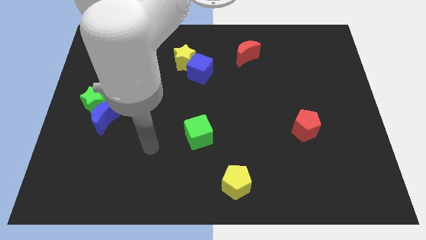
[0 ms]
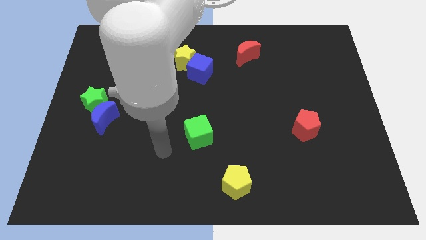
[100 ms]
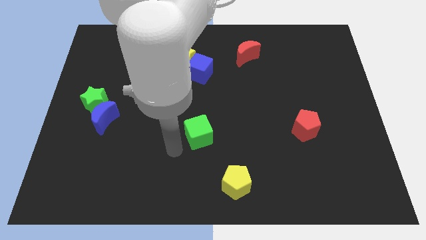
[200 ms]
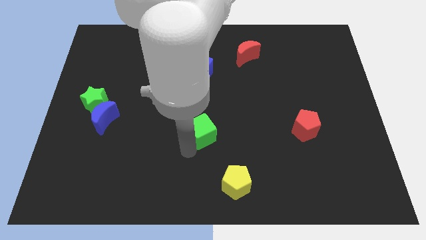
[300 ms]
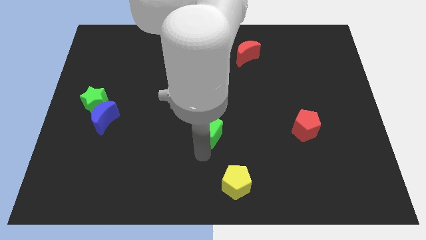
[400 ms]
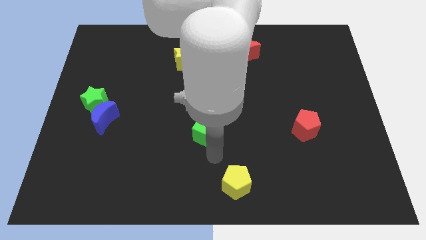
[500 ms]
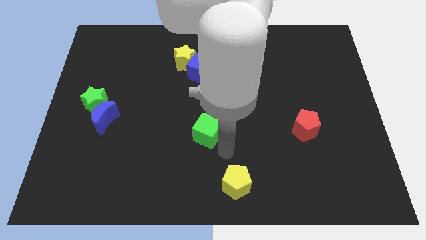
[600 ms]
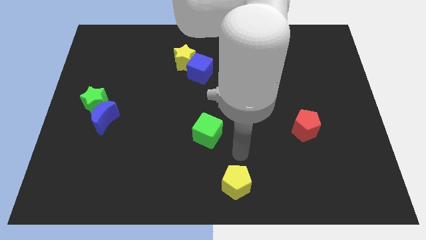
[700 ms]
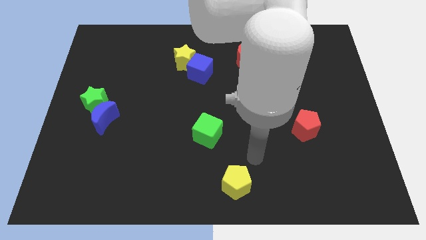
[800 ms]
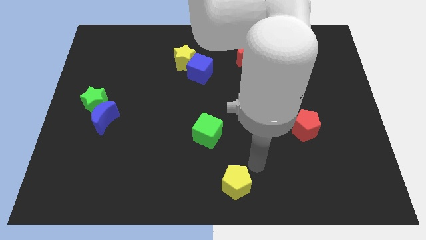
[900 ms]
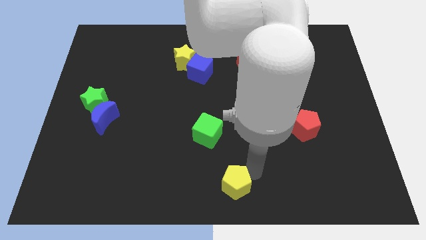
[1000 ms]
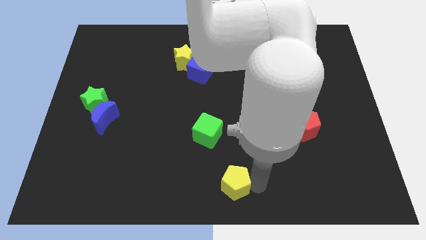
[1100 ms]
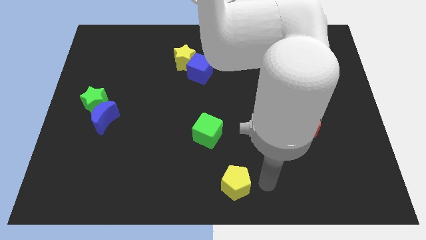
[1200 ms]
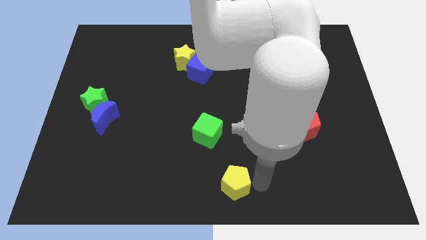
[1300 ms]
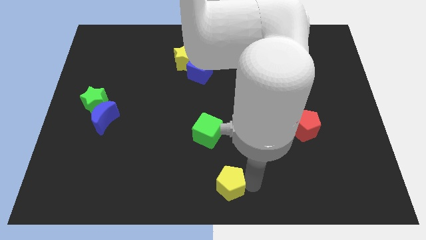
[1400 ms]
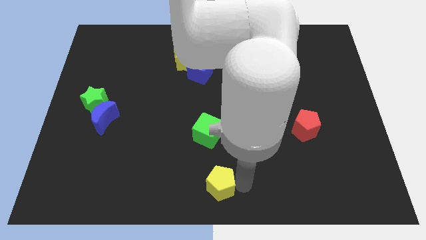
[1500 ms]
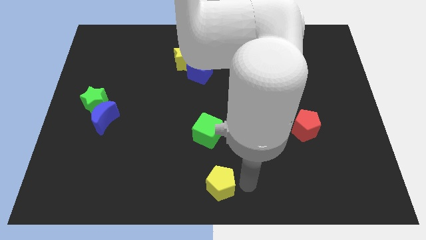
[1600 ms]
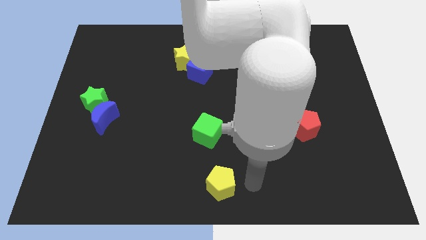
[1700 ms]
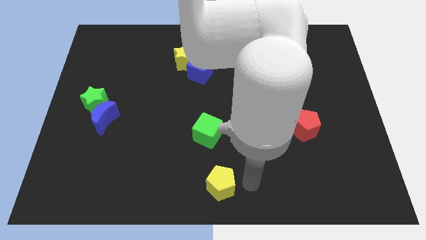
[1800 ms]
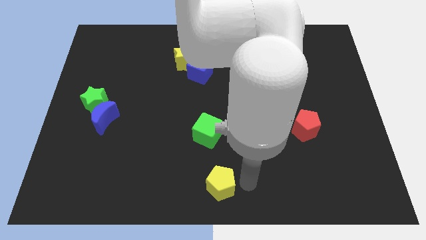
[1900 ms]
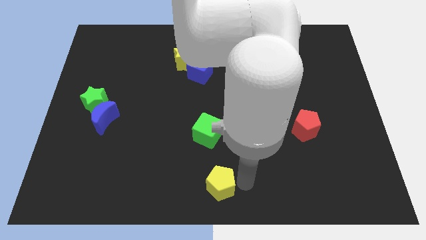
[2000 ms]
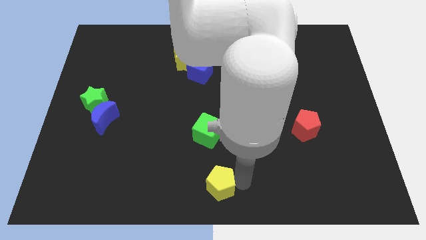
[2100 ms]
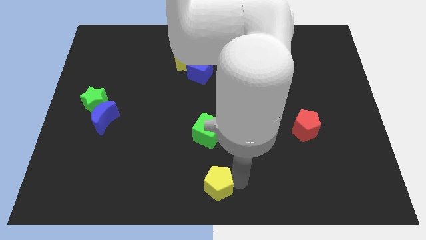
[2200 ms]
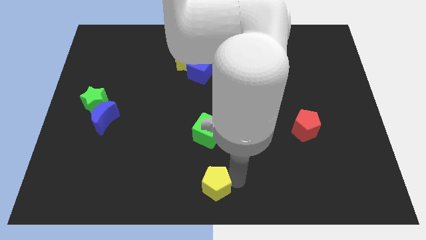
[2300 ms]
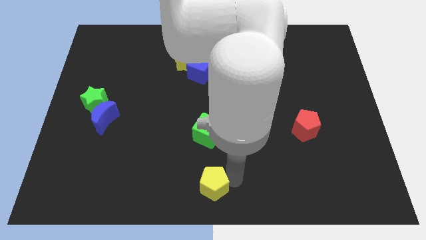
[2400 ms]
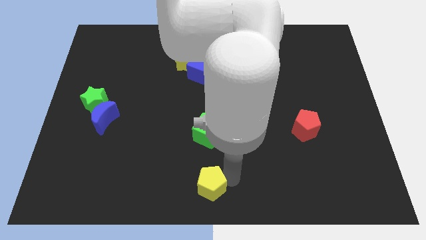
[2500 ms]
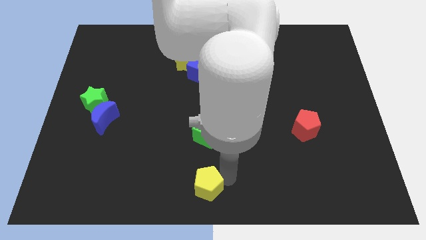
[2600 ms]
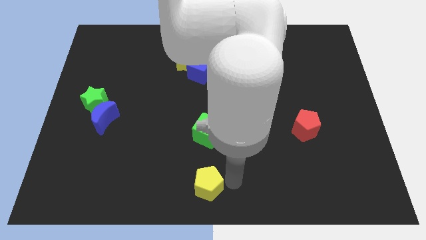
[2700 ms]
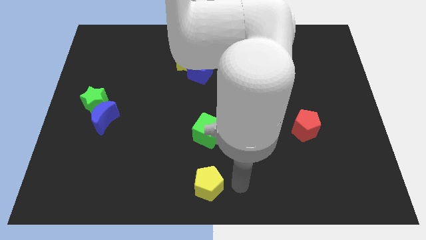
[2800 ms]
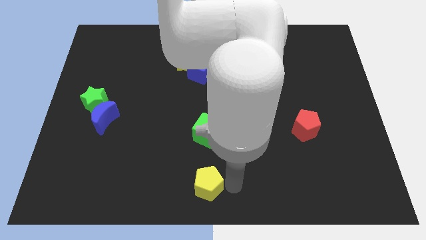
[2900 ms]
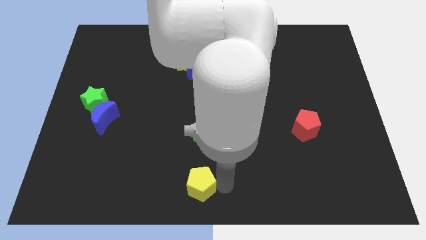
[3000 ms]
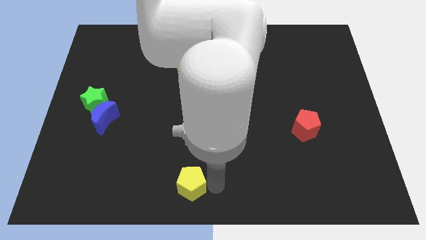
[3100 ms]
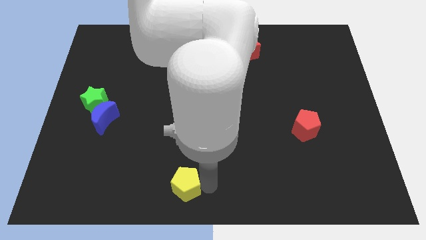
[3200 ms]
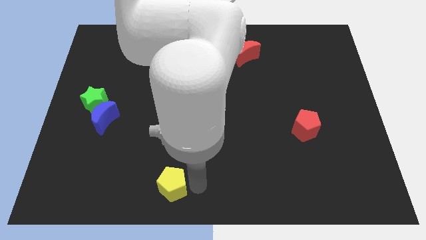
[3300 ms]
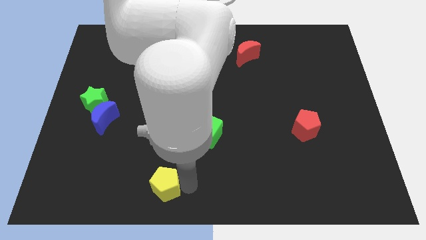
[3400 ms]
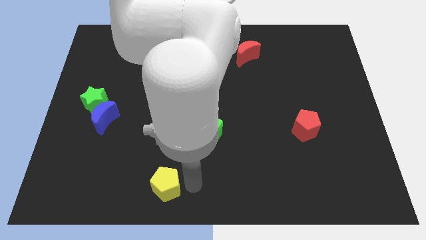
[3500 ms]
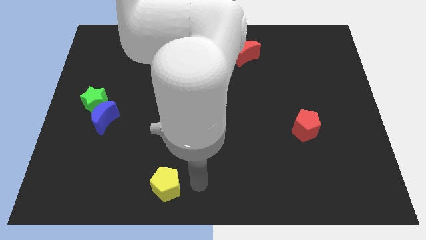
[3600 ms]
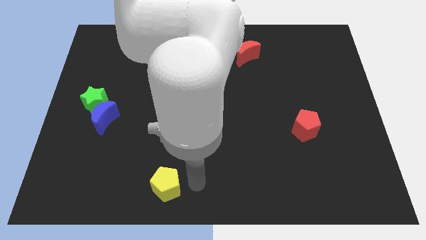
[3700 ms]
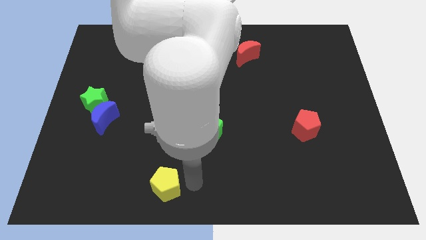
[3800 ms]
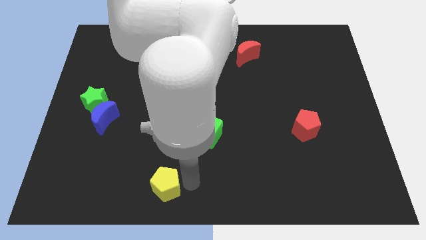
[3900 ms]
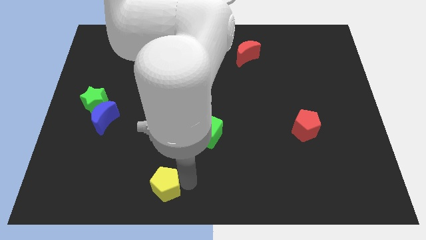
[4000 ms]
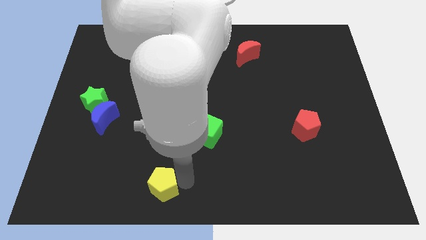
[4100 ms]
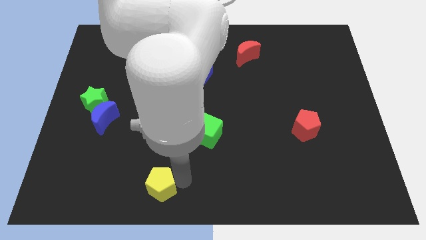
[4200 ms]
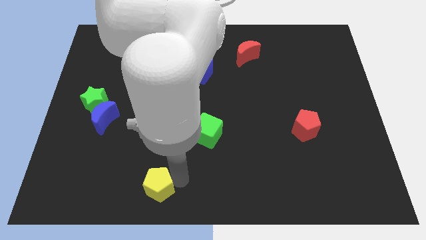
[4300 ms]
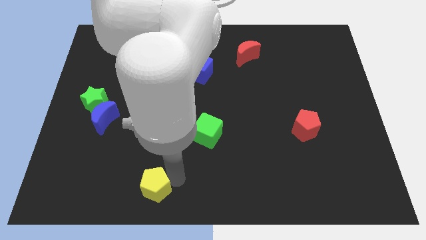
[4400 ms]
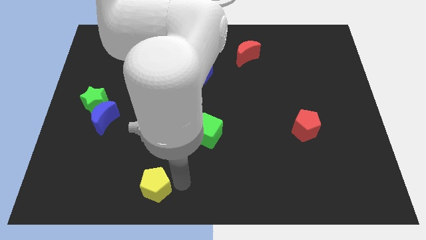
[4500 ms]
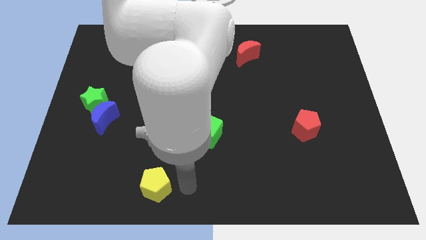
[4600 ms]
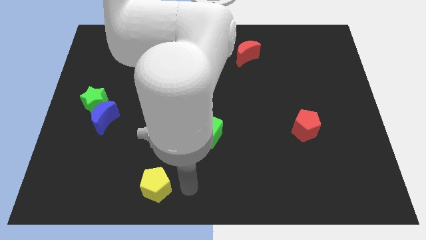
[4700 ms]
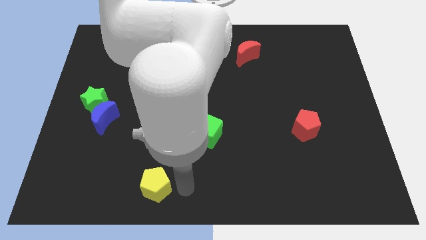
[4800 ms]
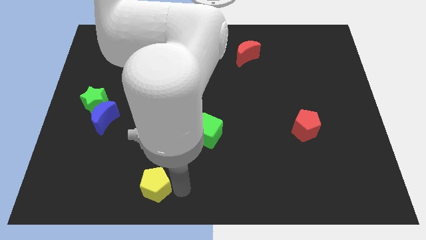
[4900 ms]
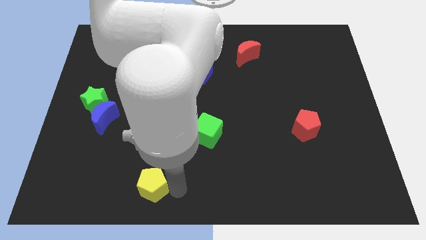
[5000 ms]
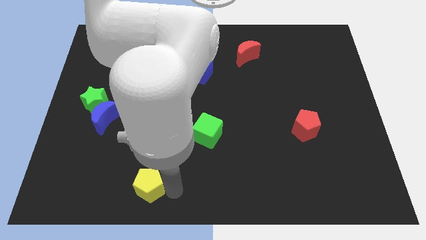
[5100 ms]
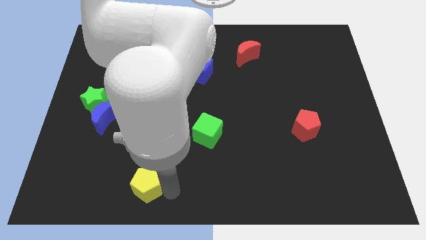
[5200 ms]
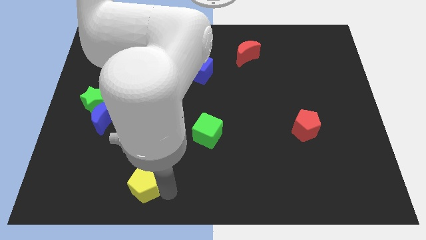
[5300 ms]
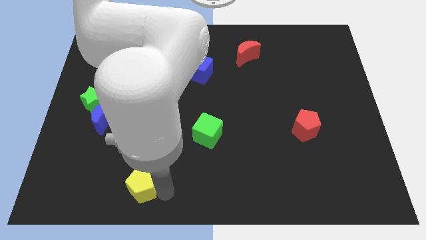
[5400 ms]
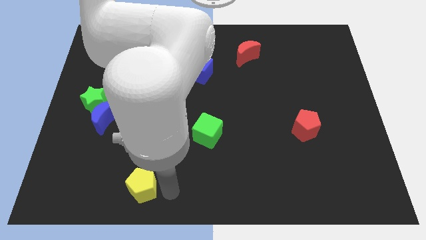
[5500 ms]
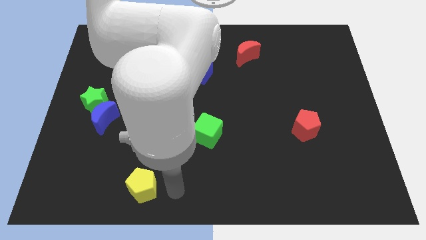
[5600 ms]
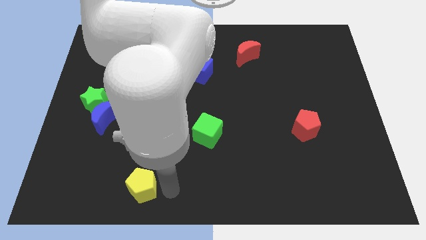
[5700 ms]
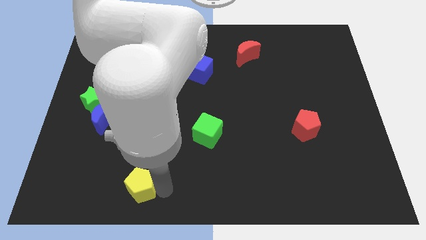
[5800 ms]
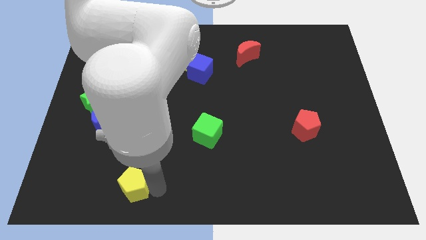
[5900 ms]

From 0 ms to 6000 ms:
slide the yellow pentagon to the left

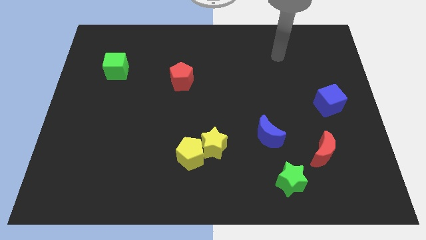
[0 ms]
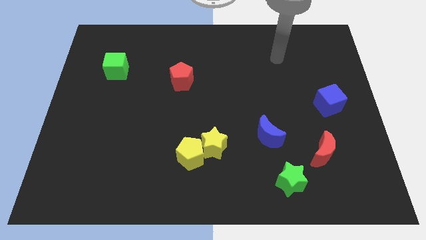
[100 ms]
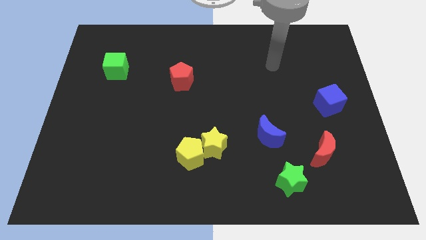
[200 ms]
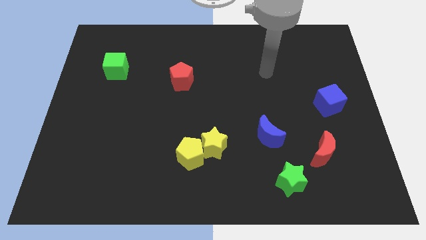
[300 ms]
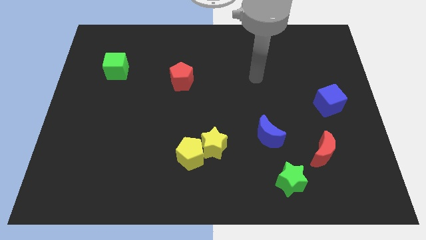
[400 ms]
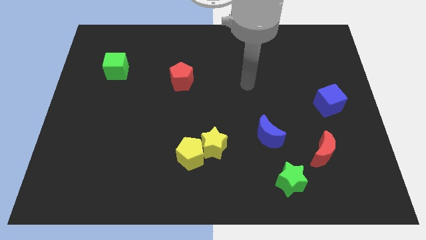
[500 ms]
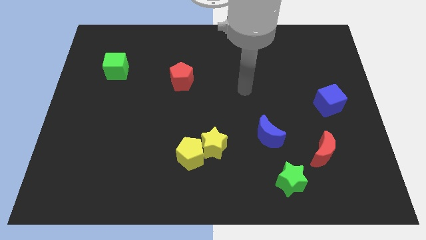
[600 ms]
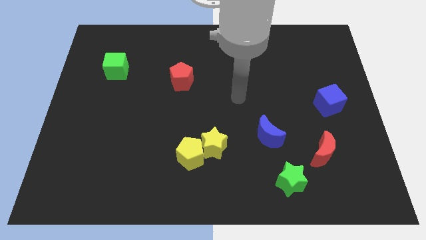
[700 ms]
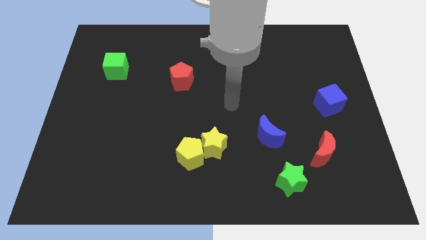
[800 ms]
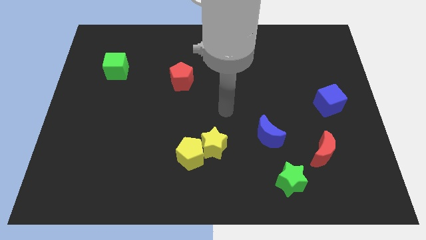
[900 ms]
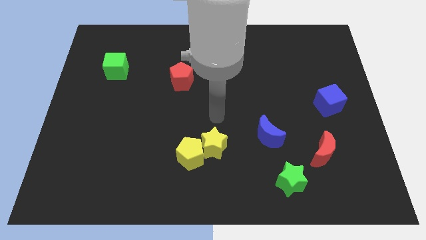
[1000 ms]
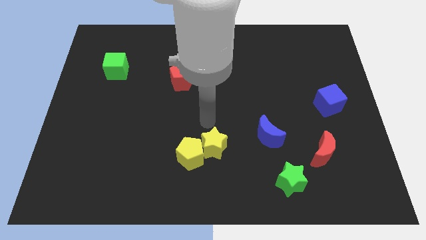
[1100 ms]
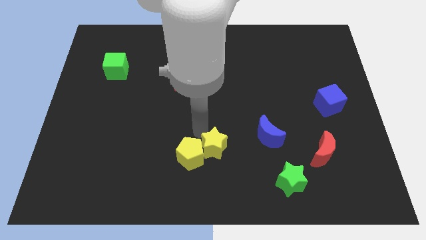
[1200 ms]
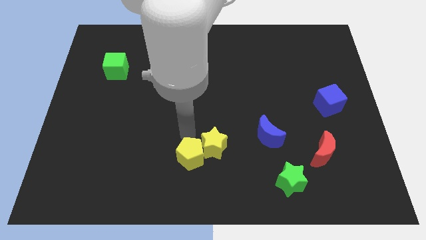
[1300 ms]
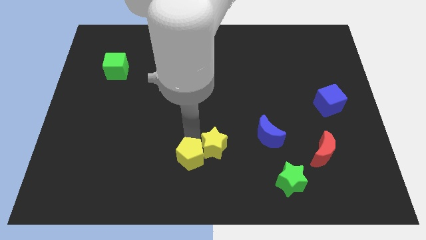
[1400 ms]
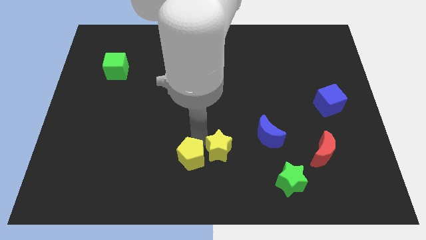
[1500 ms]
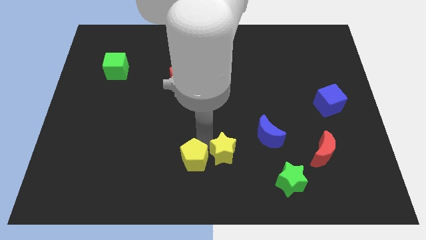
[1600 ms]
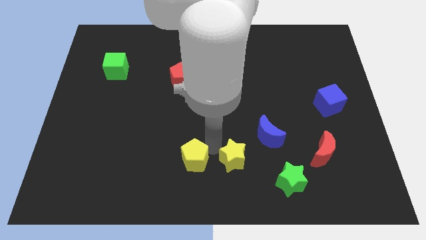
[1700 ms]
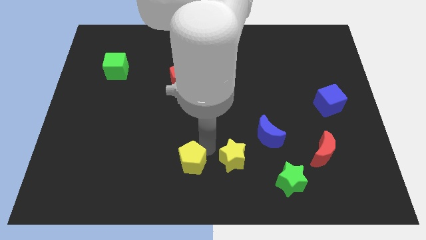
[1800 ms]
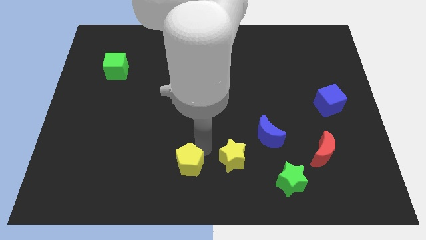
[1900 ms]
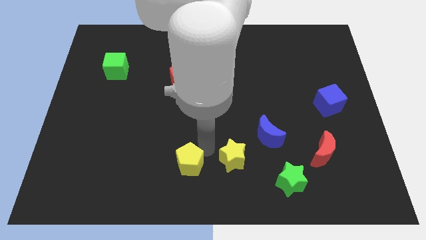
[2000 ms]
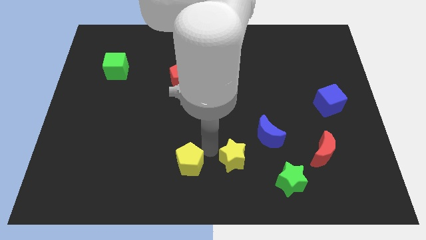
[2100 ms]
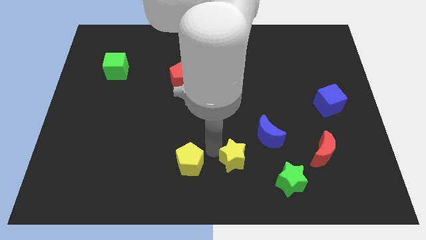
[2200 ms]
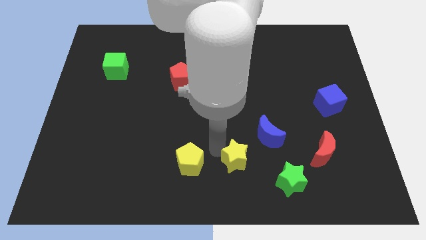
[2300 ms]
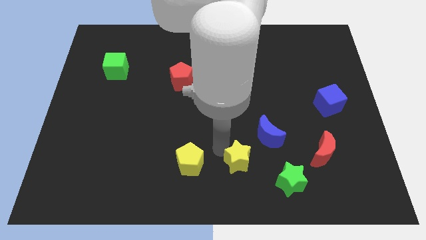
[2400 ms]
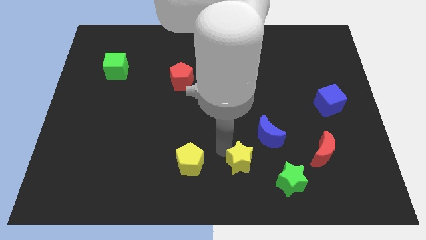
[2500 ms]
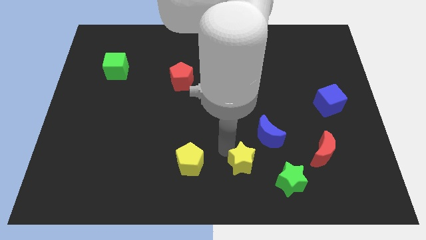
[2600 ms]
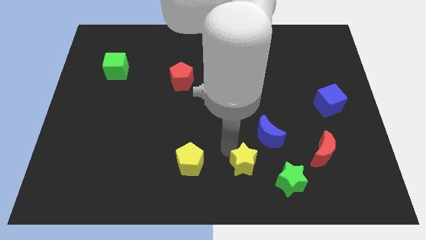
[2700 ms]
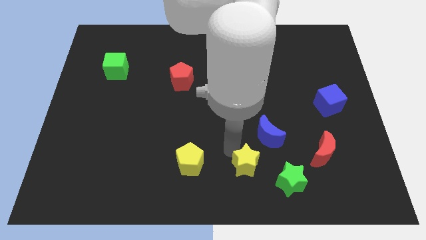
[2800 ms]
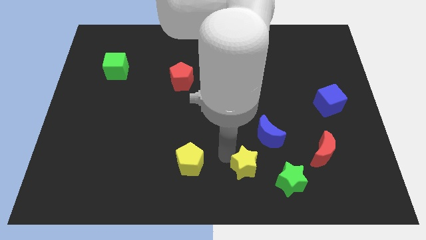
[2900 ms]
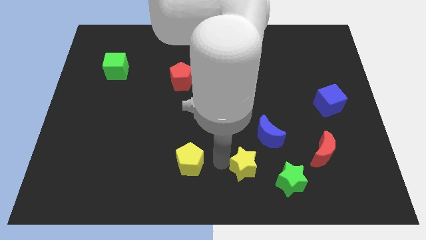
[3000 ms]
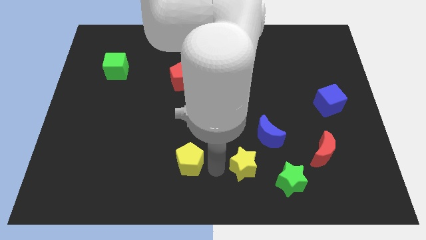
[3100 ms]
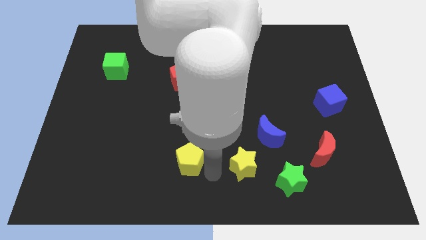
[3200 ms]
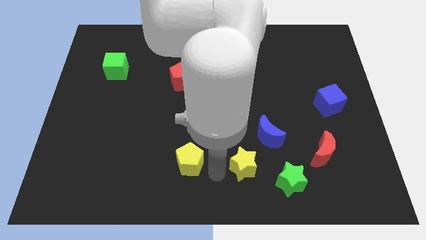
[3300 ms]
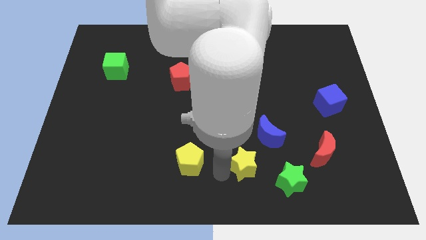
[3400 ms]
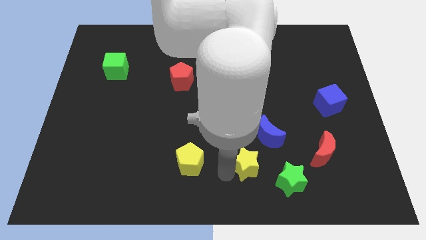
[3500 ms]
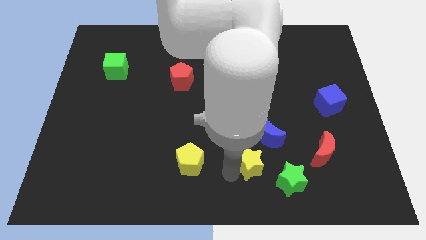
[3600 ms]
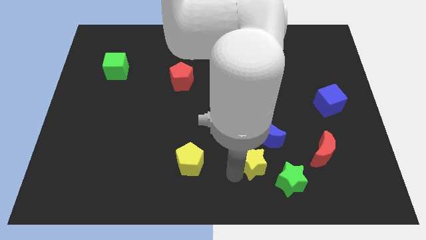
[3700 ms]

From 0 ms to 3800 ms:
push the yellow star right somewhat
